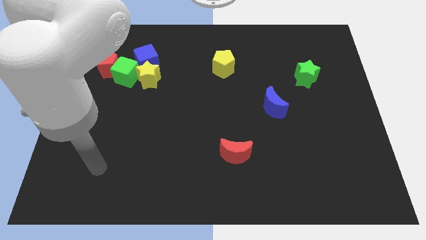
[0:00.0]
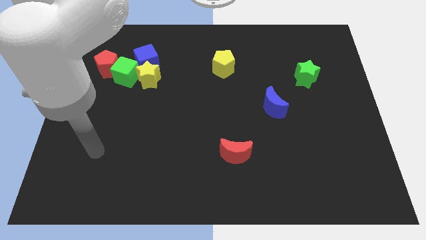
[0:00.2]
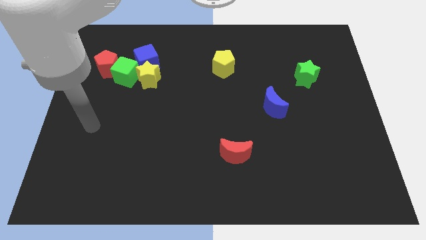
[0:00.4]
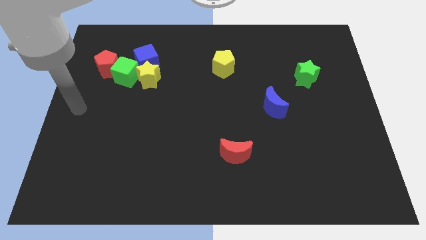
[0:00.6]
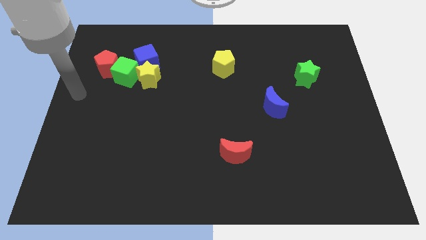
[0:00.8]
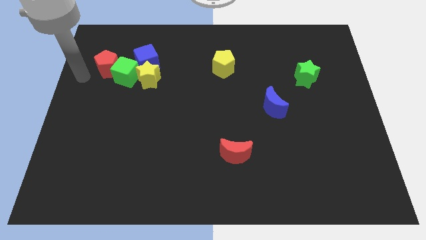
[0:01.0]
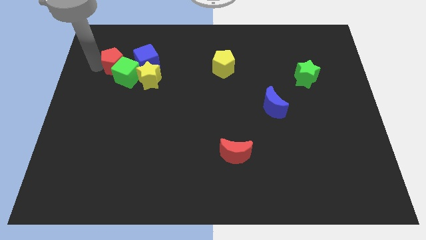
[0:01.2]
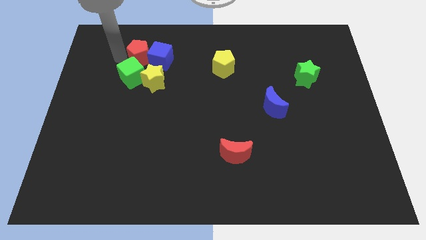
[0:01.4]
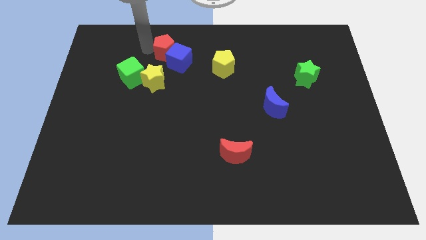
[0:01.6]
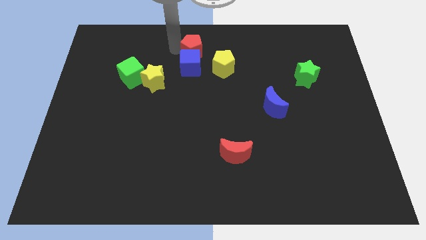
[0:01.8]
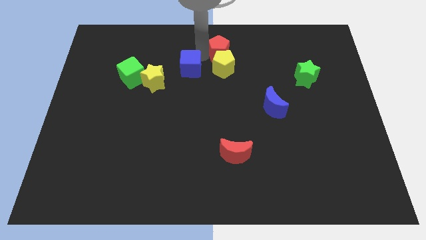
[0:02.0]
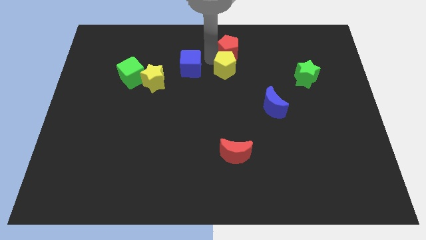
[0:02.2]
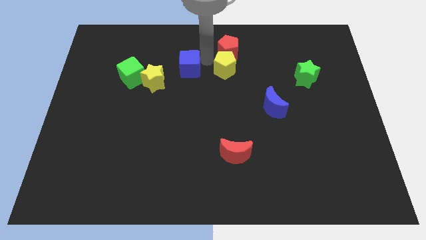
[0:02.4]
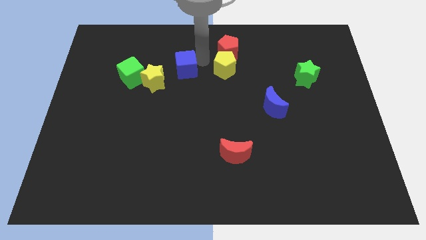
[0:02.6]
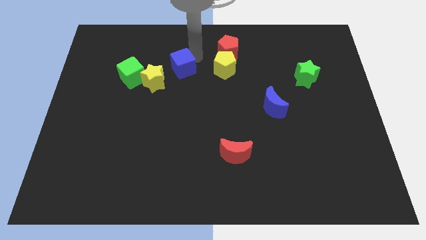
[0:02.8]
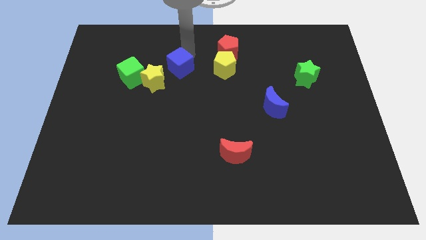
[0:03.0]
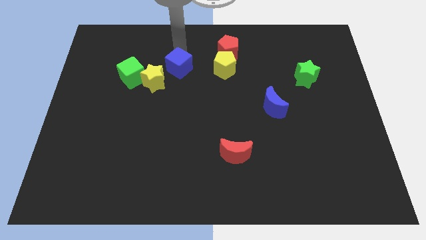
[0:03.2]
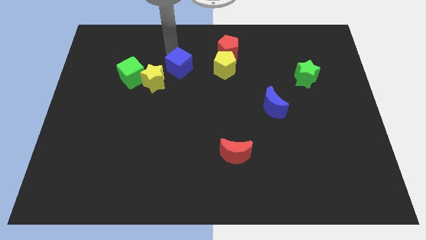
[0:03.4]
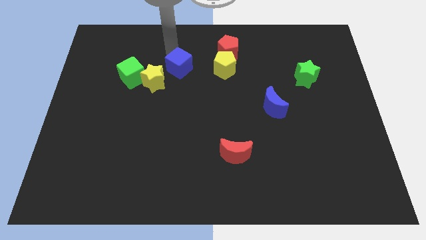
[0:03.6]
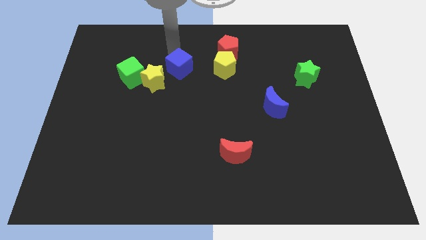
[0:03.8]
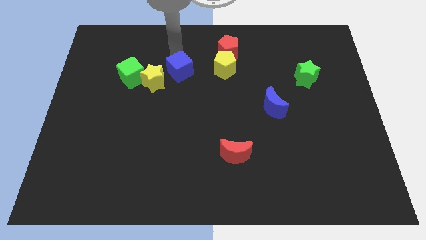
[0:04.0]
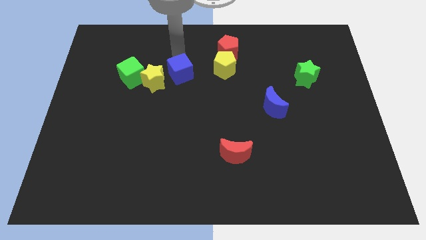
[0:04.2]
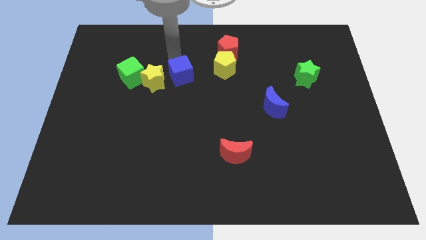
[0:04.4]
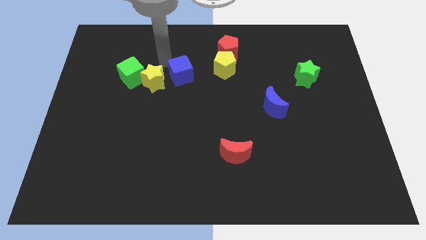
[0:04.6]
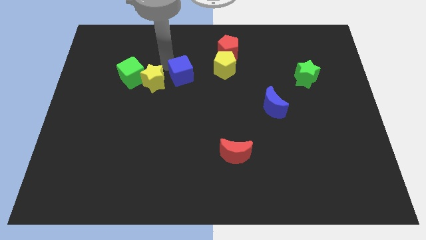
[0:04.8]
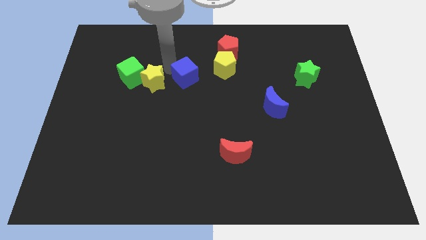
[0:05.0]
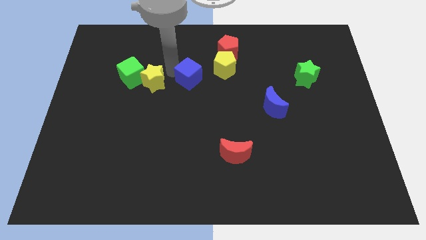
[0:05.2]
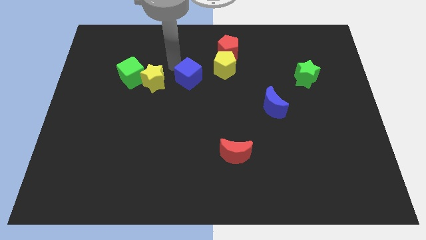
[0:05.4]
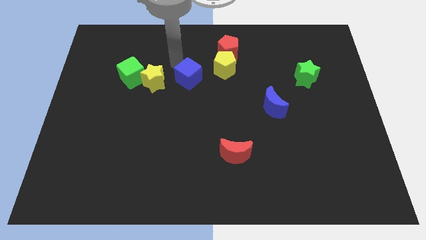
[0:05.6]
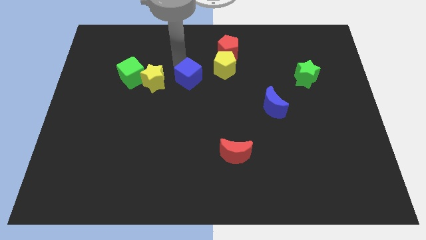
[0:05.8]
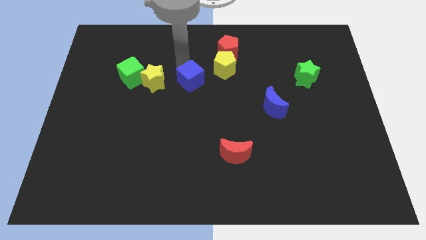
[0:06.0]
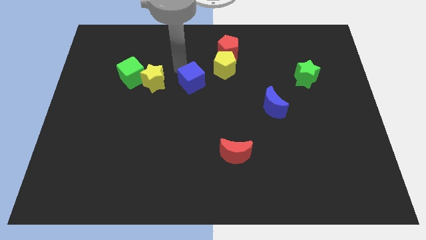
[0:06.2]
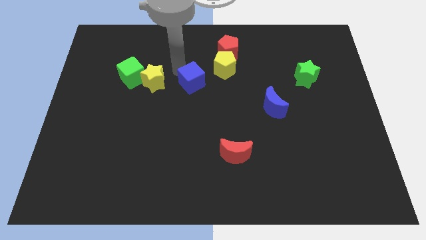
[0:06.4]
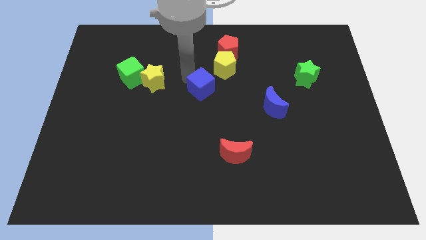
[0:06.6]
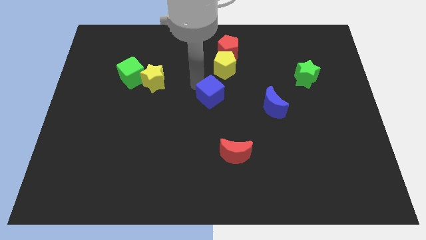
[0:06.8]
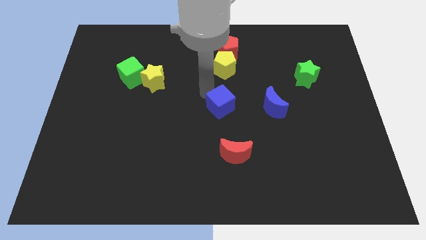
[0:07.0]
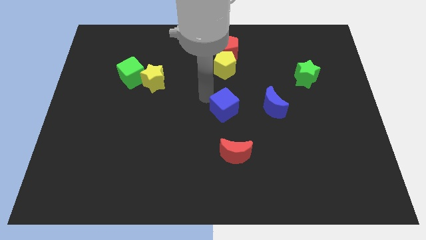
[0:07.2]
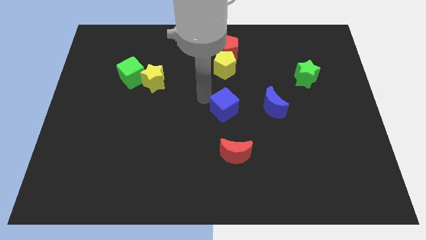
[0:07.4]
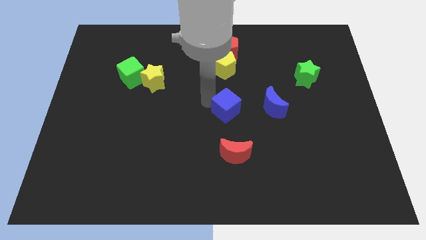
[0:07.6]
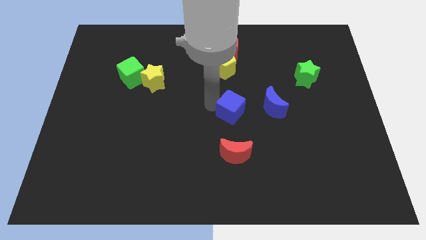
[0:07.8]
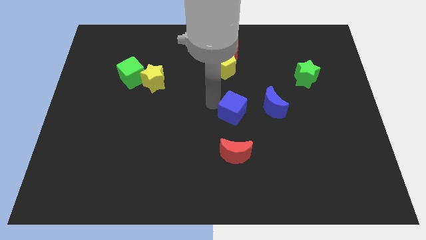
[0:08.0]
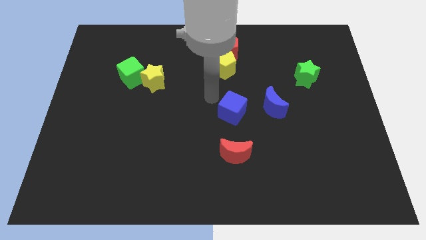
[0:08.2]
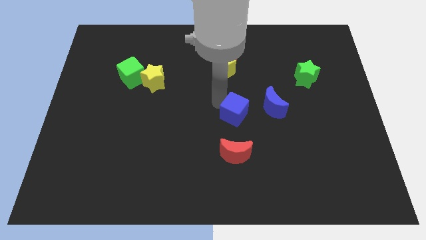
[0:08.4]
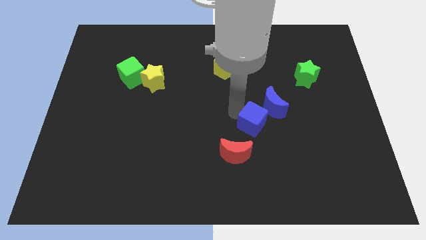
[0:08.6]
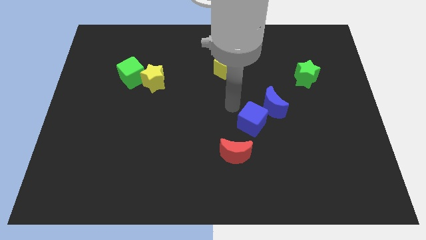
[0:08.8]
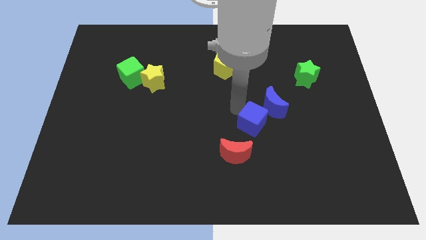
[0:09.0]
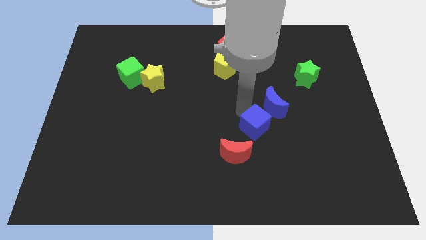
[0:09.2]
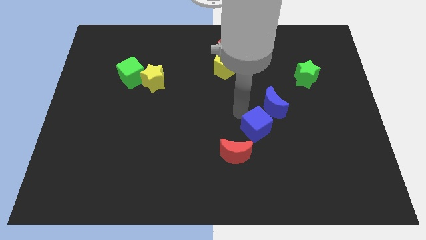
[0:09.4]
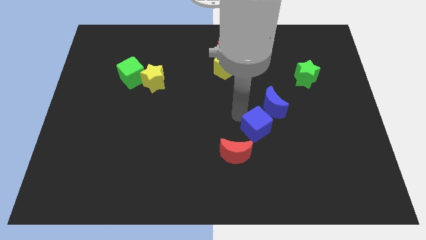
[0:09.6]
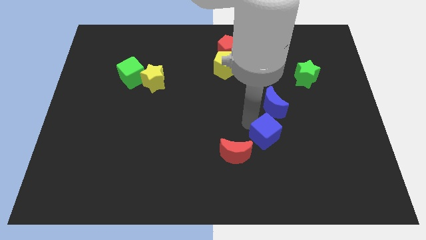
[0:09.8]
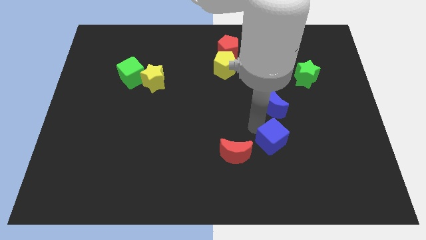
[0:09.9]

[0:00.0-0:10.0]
push the blue cube to the right side of the red moon

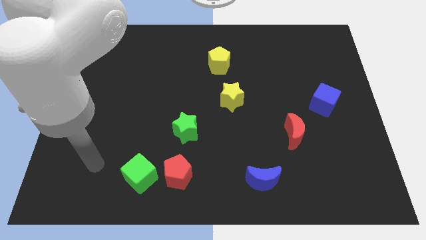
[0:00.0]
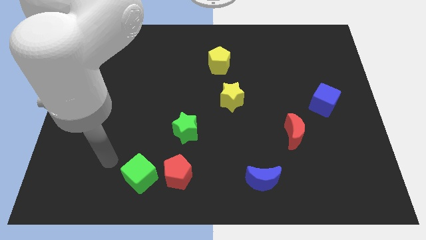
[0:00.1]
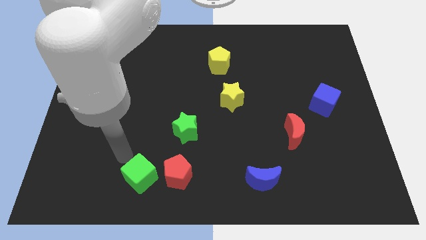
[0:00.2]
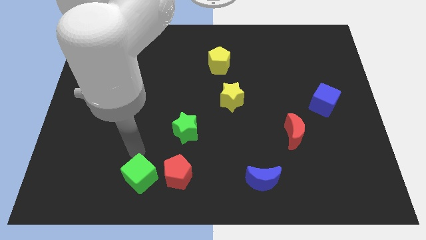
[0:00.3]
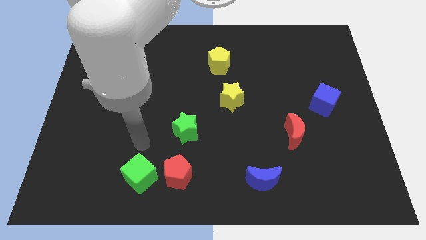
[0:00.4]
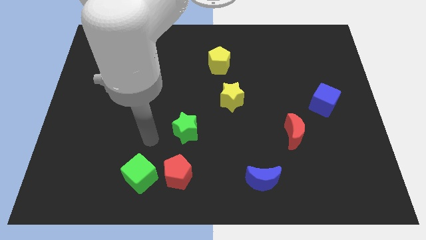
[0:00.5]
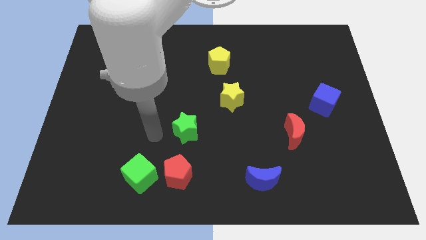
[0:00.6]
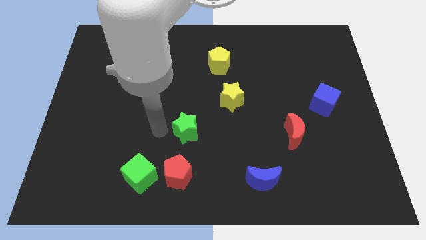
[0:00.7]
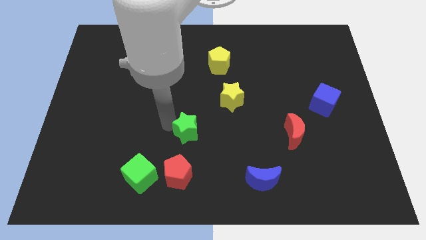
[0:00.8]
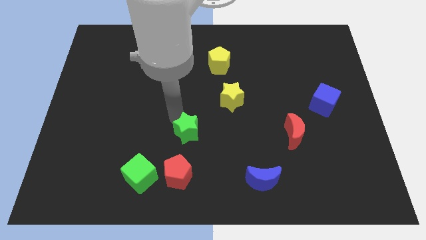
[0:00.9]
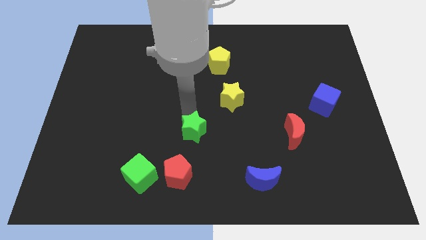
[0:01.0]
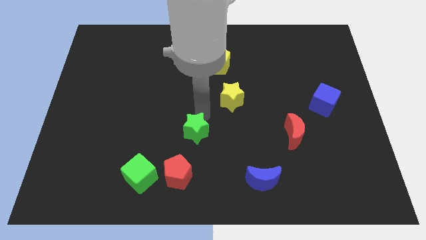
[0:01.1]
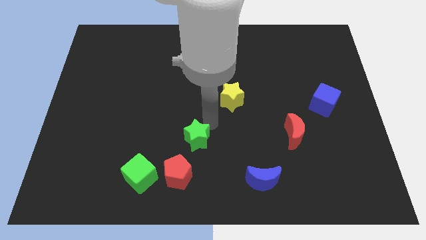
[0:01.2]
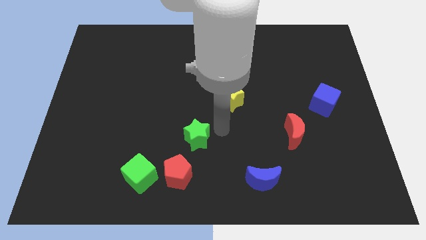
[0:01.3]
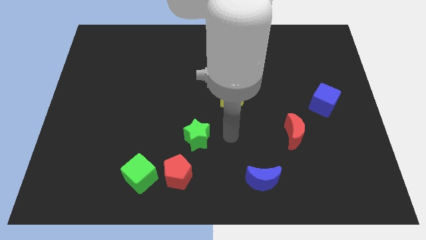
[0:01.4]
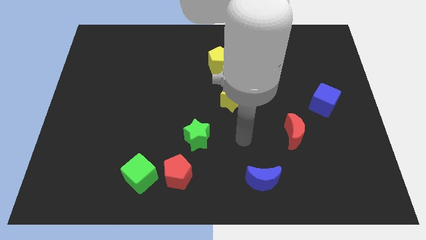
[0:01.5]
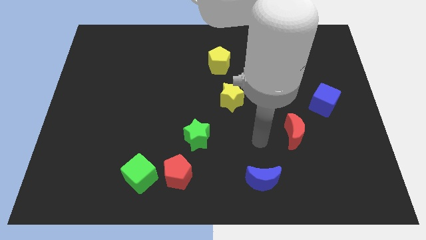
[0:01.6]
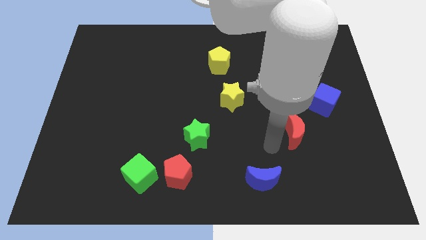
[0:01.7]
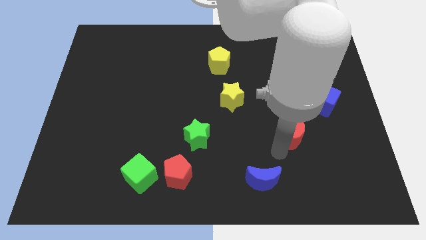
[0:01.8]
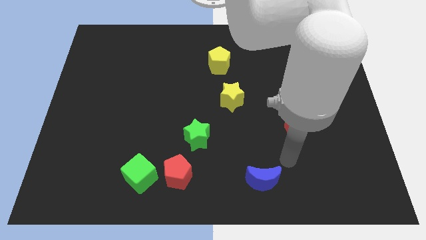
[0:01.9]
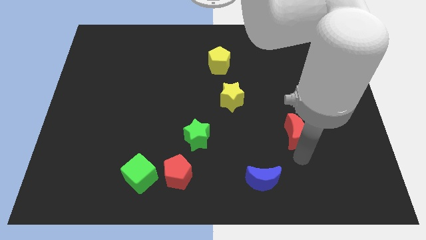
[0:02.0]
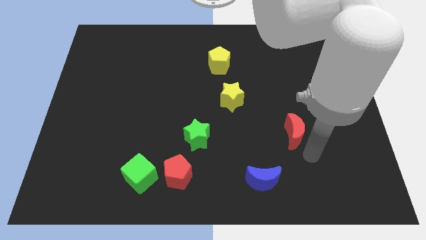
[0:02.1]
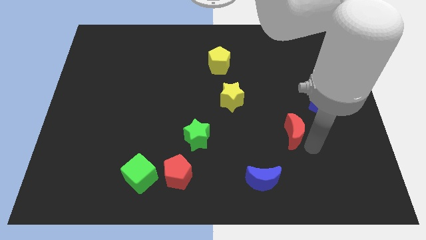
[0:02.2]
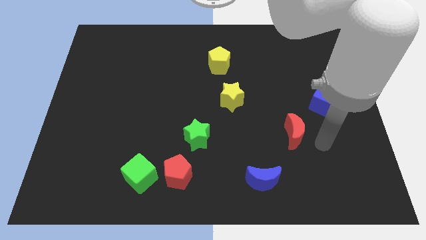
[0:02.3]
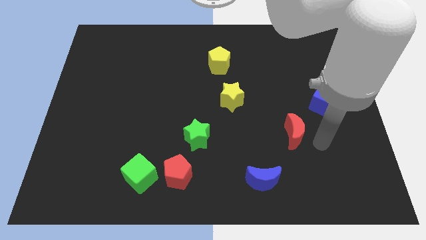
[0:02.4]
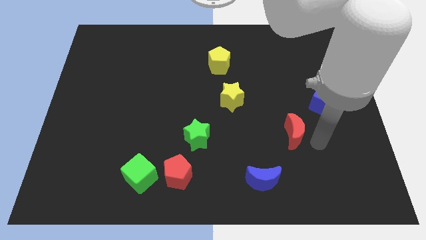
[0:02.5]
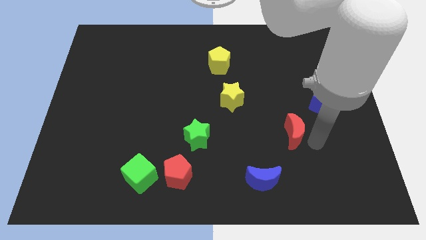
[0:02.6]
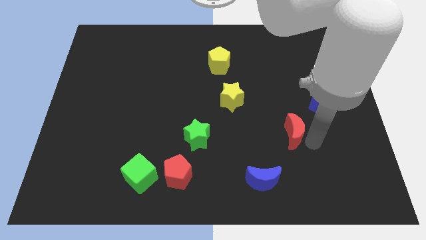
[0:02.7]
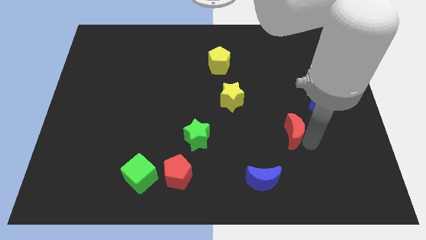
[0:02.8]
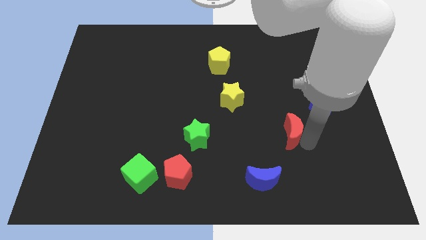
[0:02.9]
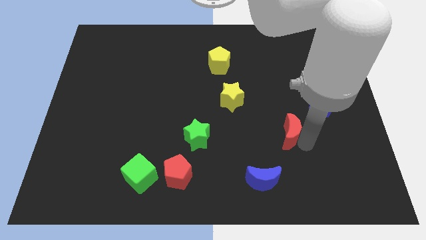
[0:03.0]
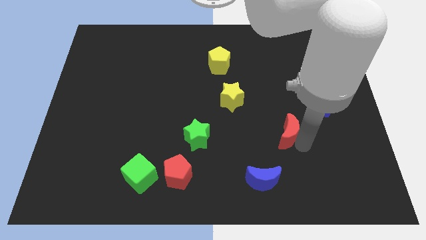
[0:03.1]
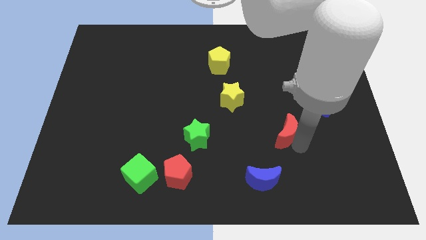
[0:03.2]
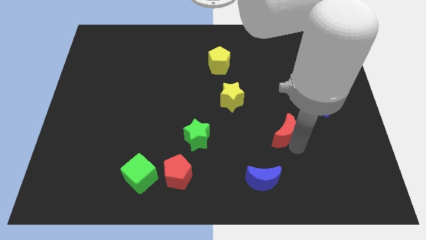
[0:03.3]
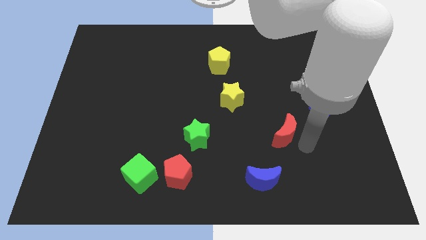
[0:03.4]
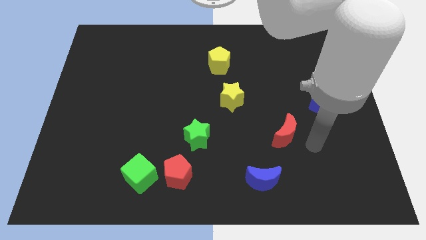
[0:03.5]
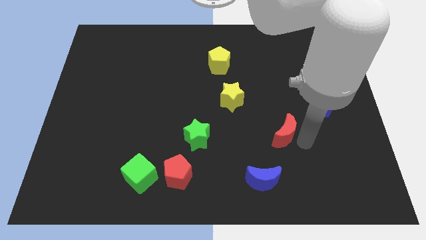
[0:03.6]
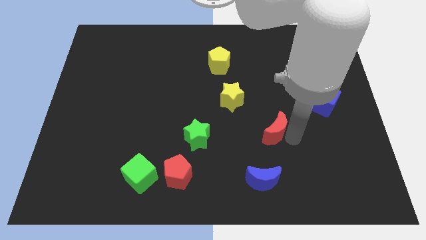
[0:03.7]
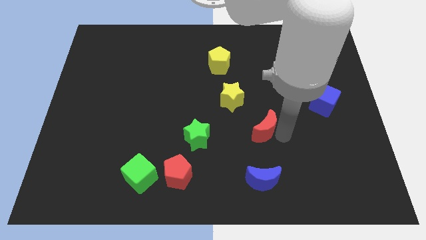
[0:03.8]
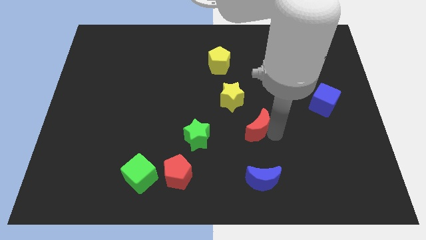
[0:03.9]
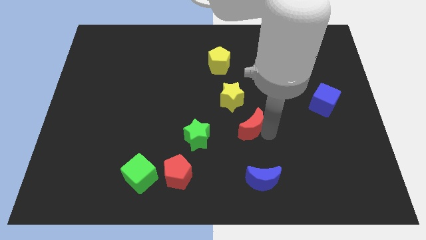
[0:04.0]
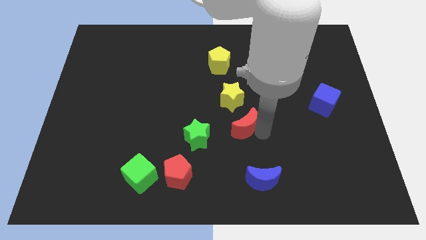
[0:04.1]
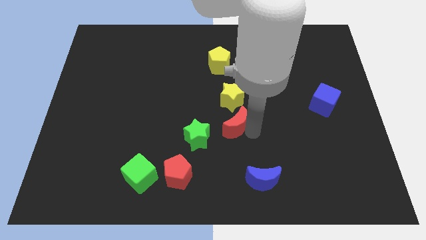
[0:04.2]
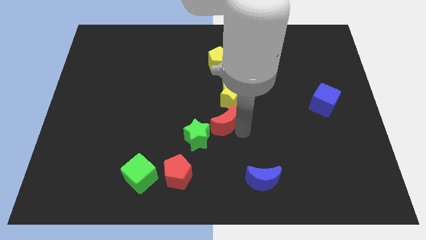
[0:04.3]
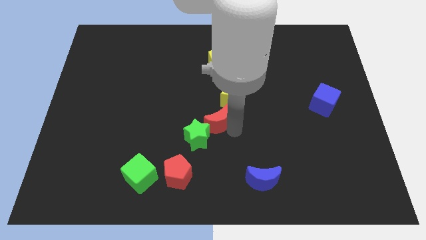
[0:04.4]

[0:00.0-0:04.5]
push the red moon above the green star
